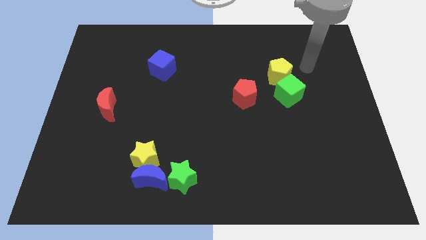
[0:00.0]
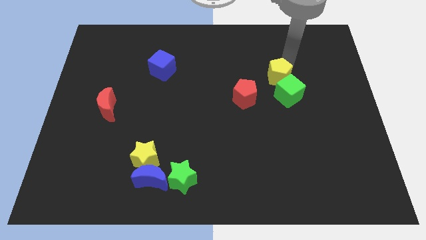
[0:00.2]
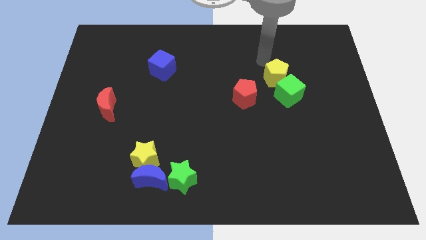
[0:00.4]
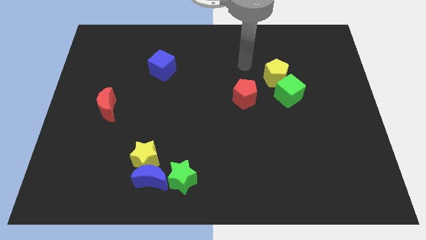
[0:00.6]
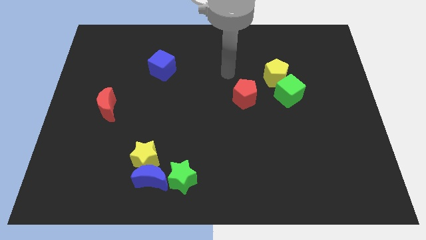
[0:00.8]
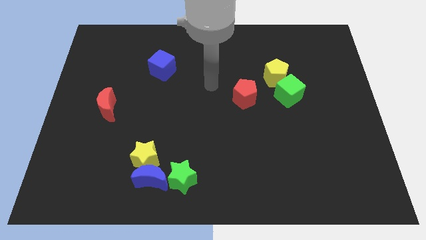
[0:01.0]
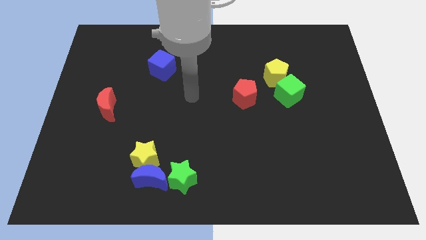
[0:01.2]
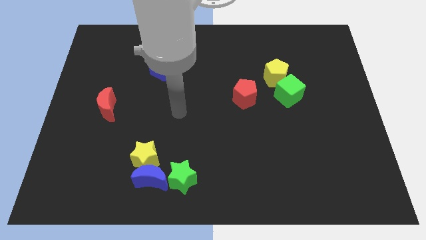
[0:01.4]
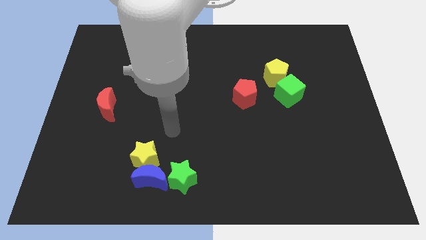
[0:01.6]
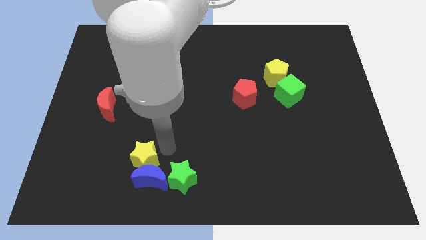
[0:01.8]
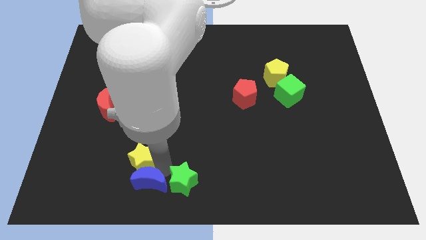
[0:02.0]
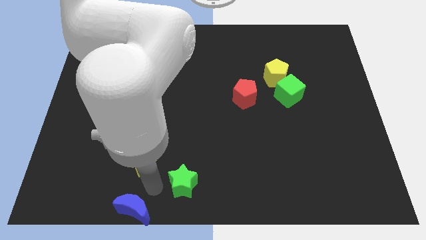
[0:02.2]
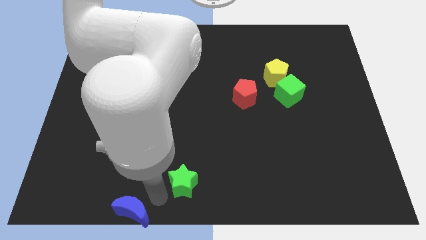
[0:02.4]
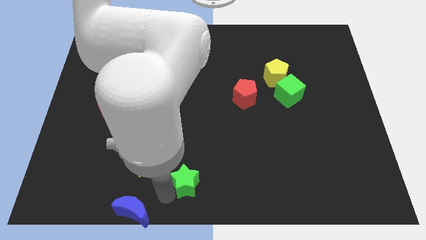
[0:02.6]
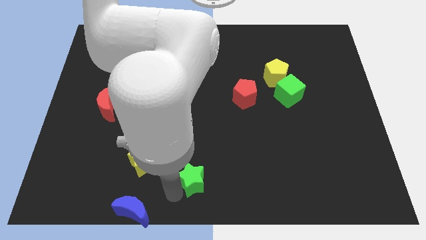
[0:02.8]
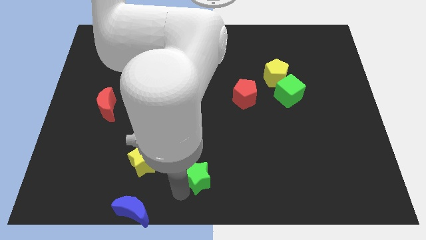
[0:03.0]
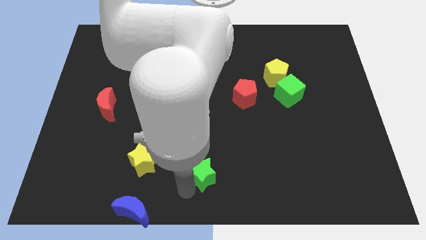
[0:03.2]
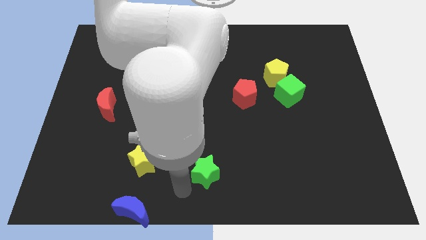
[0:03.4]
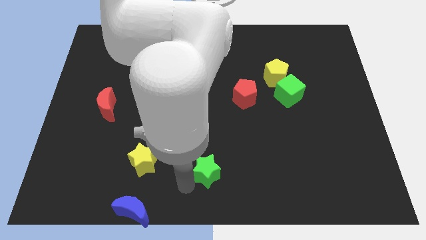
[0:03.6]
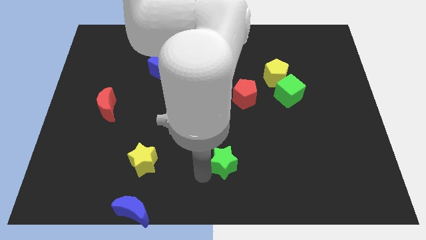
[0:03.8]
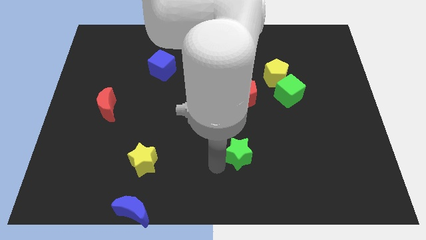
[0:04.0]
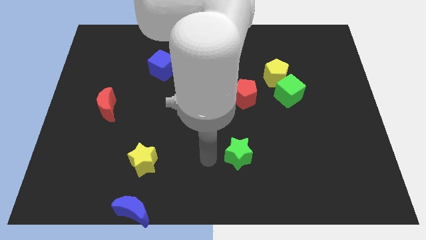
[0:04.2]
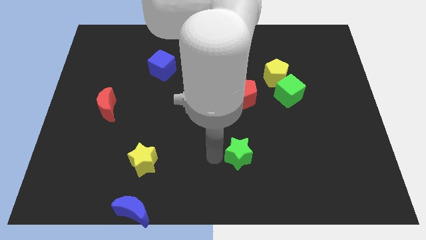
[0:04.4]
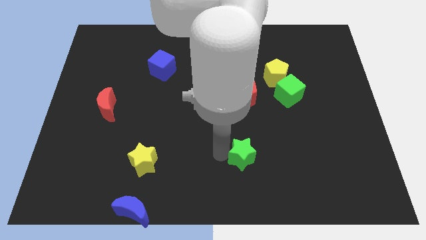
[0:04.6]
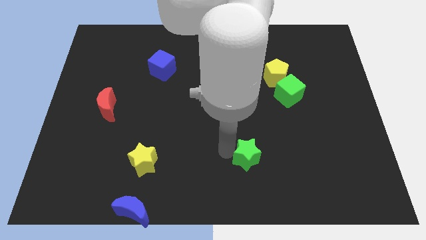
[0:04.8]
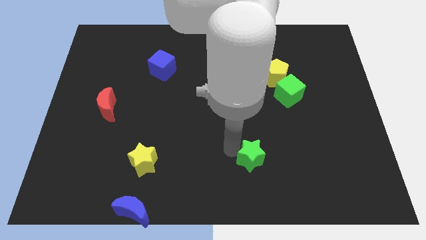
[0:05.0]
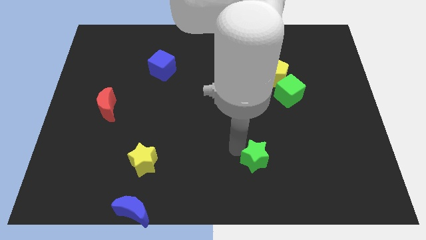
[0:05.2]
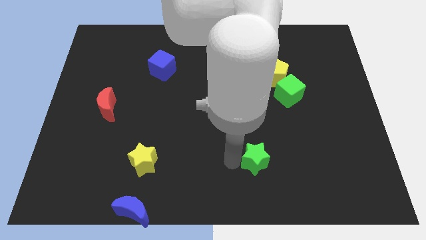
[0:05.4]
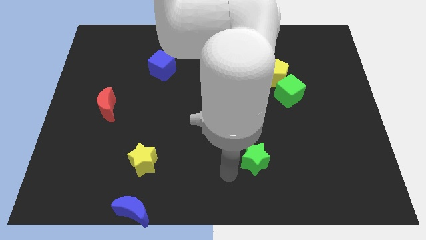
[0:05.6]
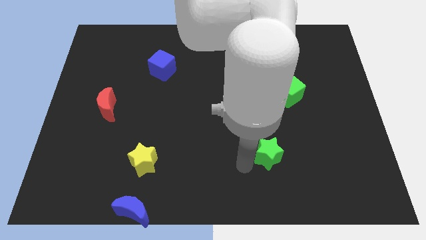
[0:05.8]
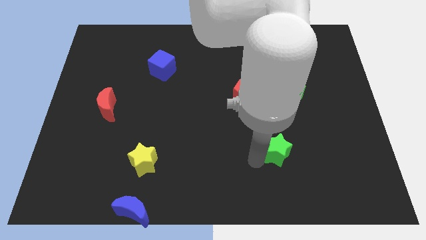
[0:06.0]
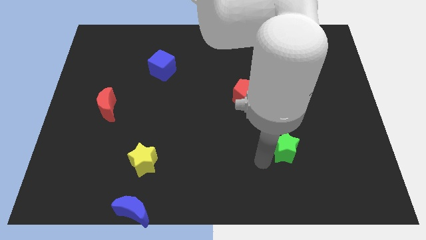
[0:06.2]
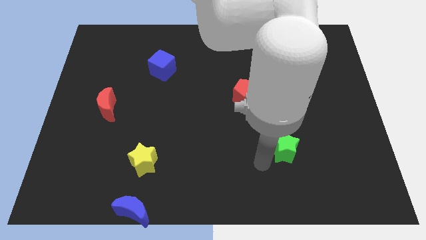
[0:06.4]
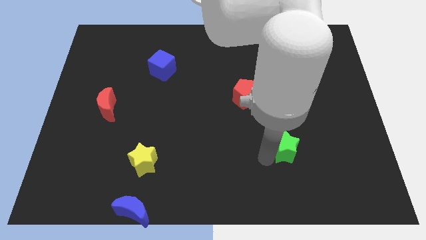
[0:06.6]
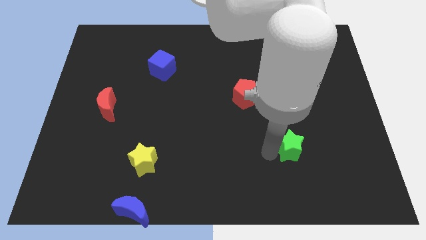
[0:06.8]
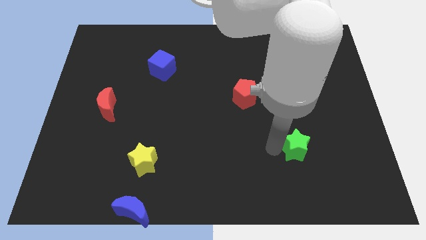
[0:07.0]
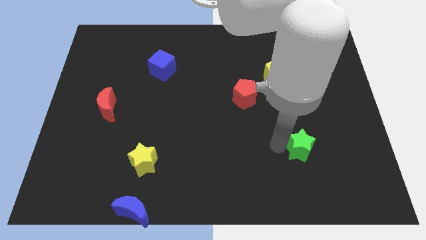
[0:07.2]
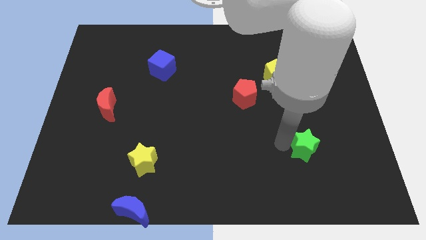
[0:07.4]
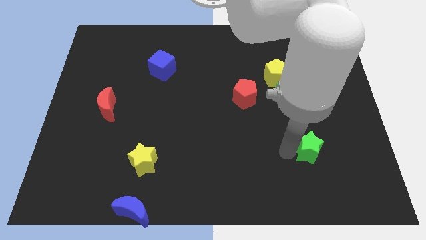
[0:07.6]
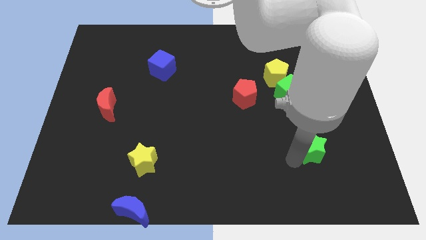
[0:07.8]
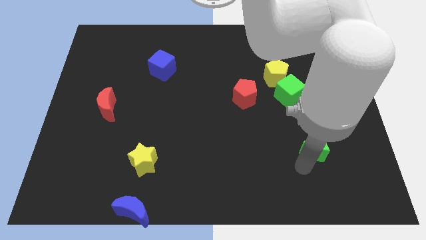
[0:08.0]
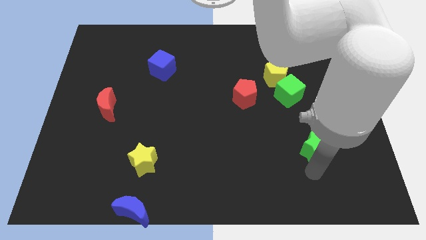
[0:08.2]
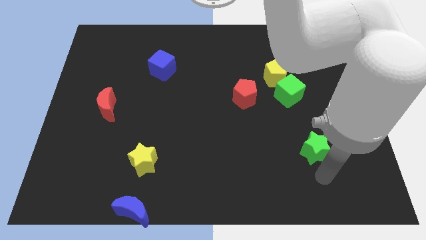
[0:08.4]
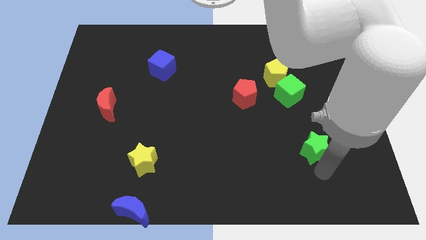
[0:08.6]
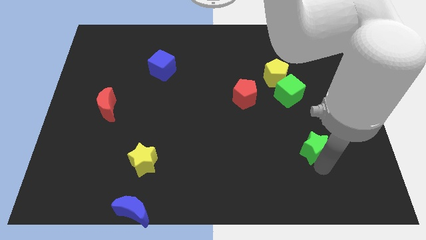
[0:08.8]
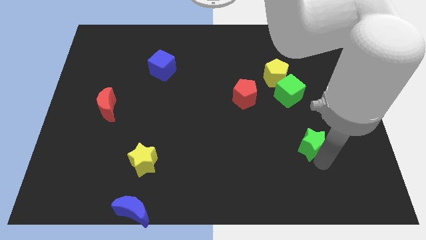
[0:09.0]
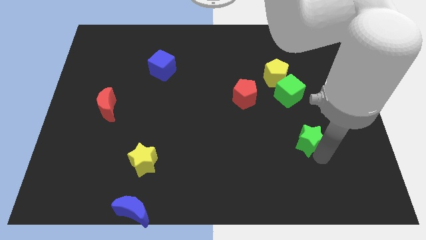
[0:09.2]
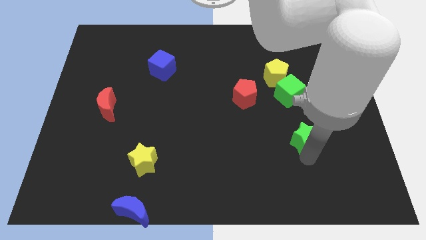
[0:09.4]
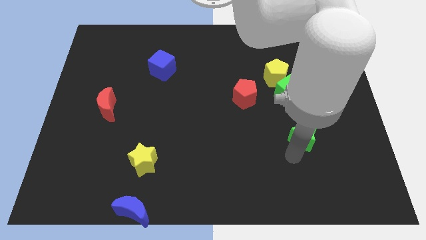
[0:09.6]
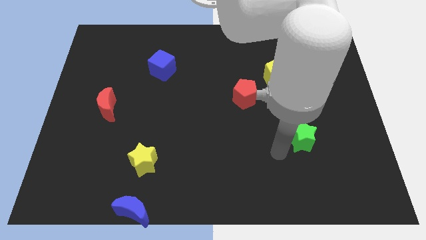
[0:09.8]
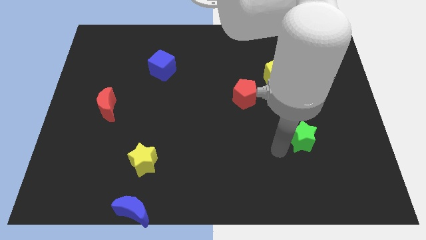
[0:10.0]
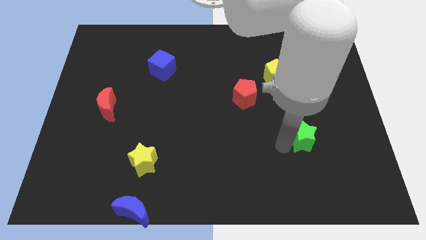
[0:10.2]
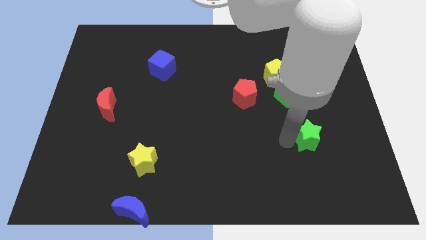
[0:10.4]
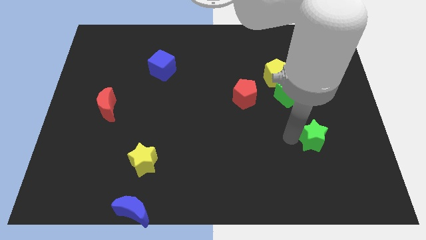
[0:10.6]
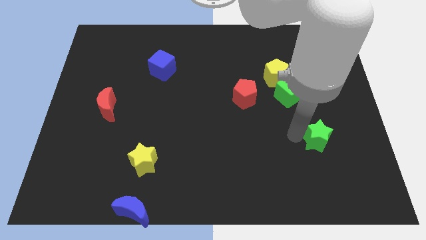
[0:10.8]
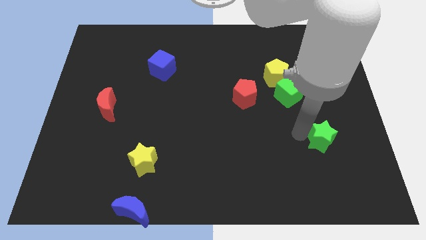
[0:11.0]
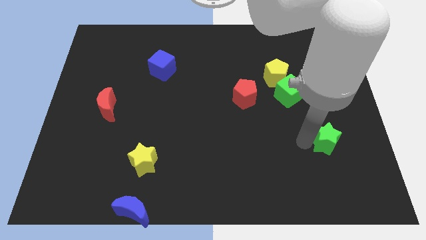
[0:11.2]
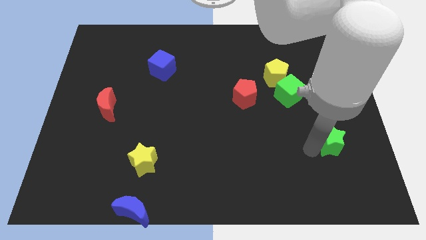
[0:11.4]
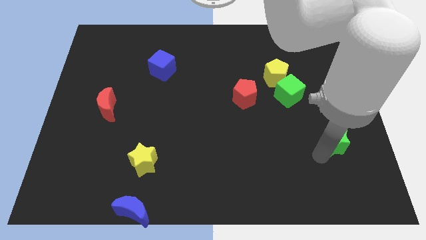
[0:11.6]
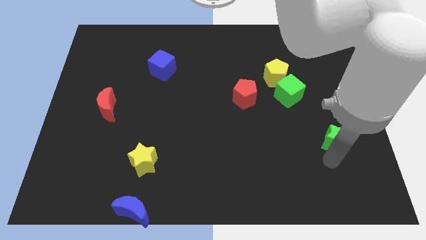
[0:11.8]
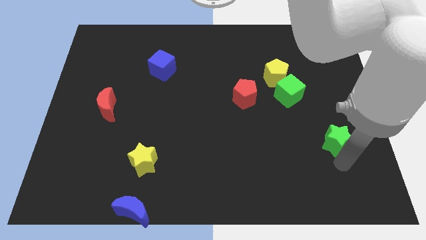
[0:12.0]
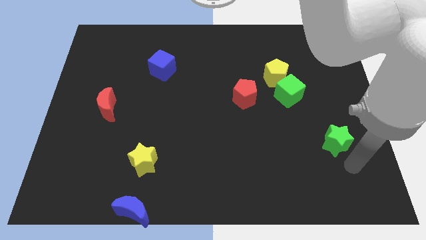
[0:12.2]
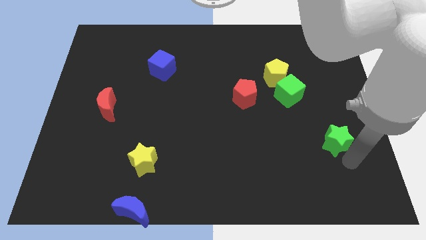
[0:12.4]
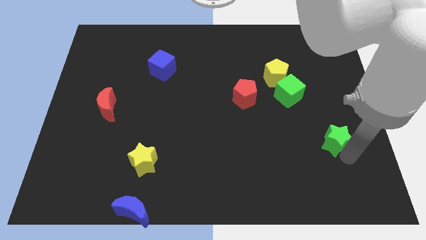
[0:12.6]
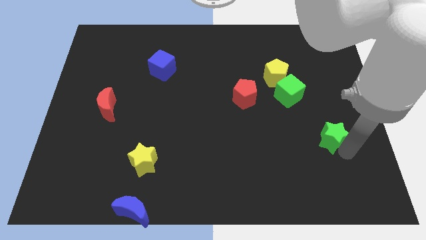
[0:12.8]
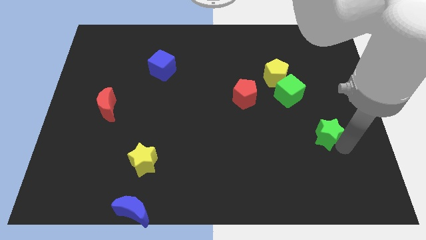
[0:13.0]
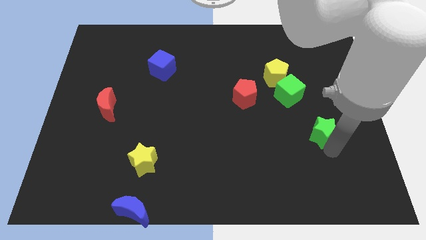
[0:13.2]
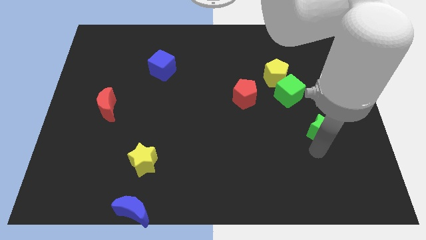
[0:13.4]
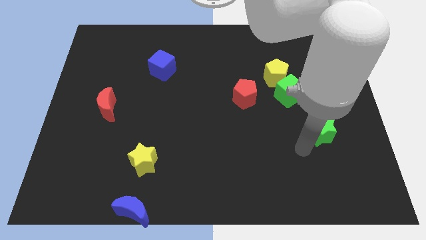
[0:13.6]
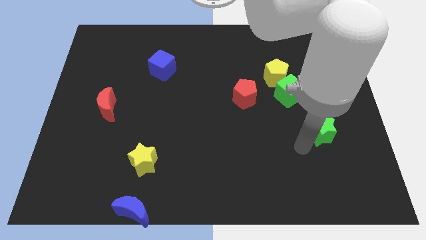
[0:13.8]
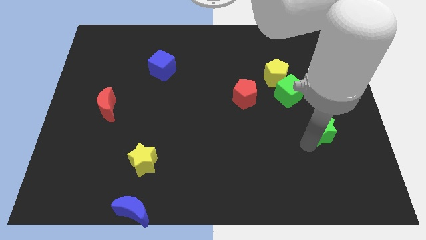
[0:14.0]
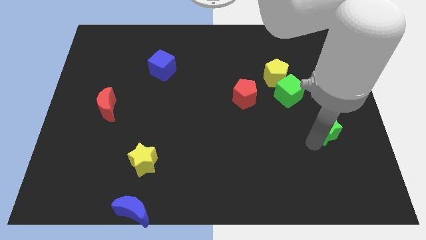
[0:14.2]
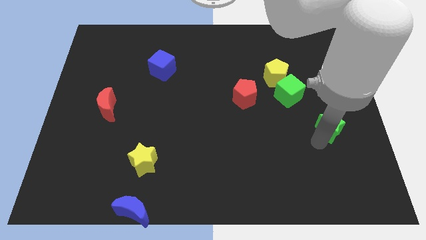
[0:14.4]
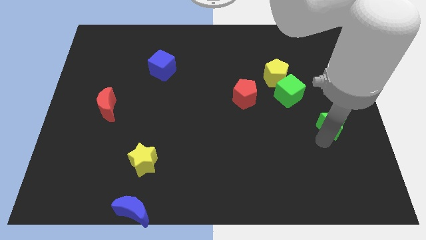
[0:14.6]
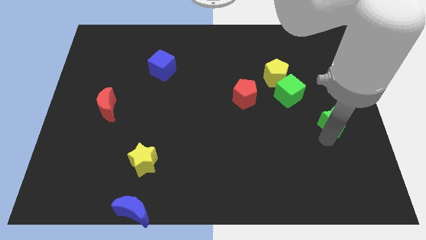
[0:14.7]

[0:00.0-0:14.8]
put the green star to the right side
